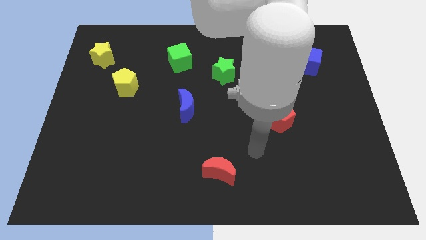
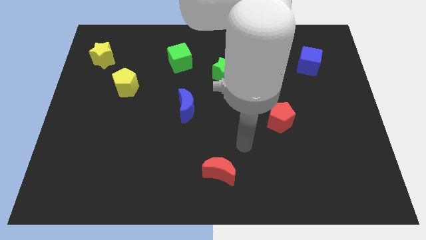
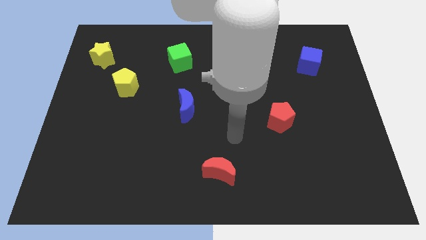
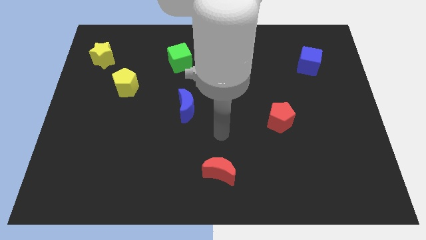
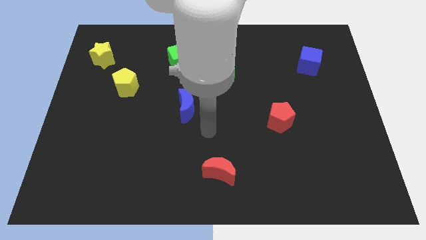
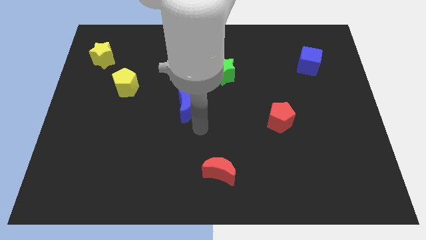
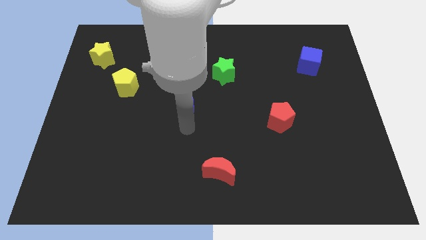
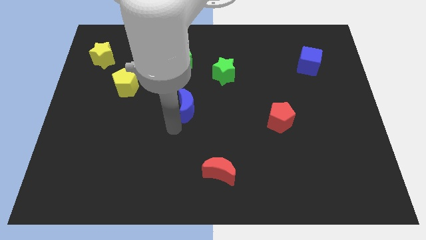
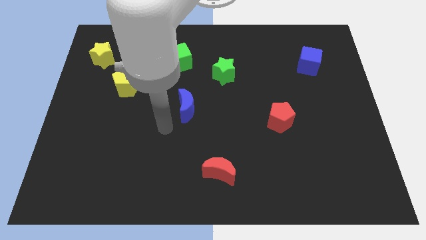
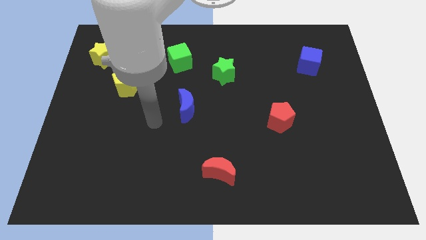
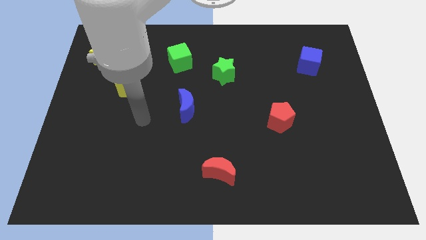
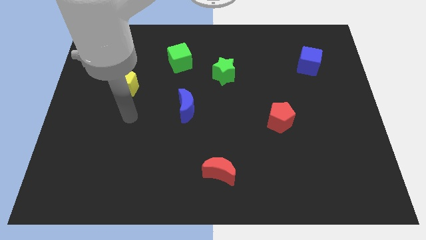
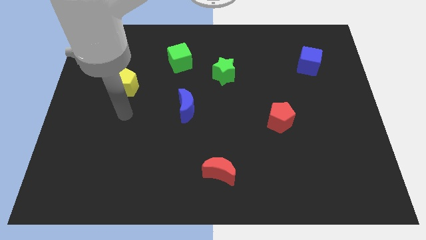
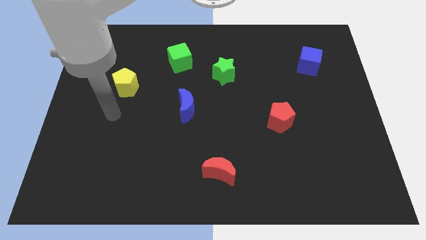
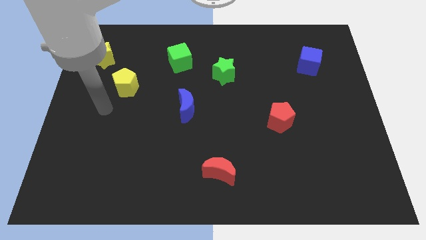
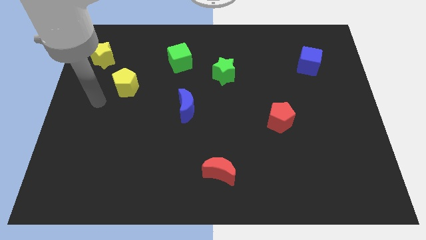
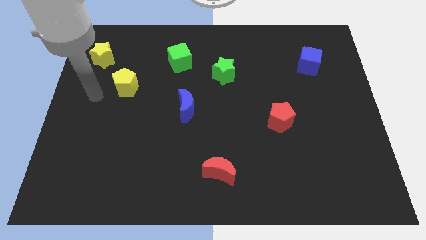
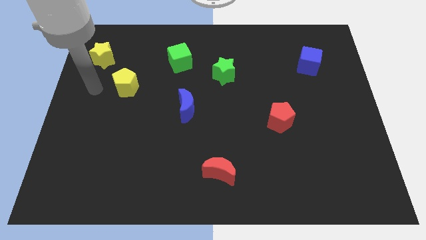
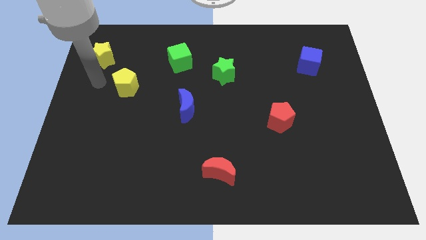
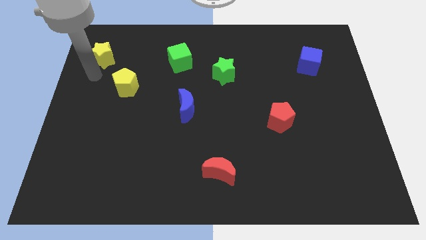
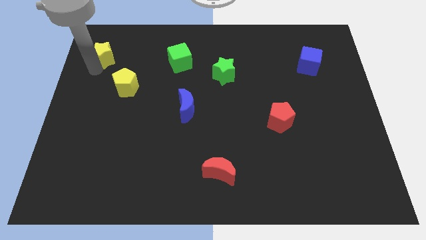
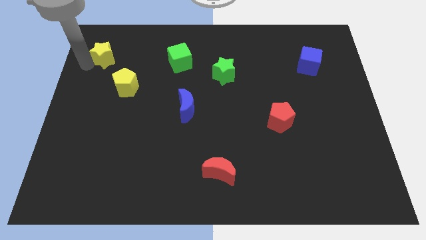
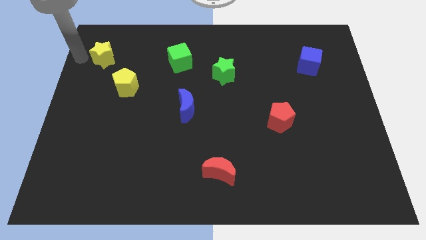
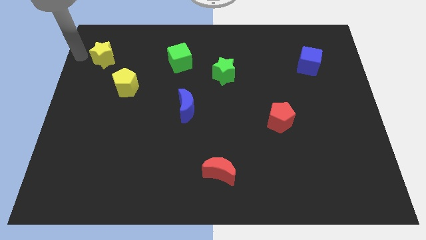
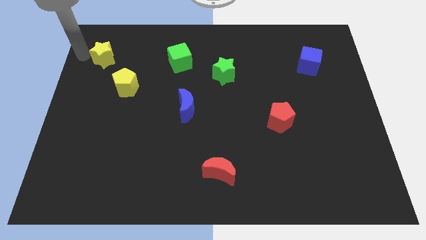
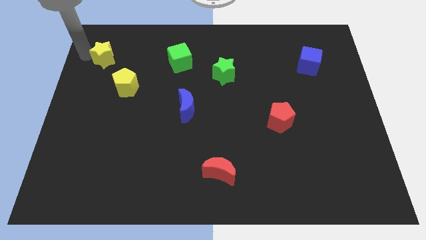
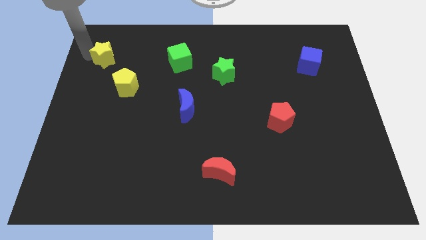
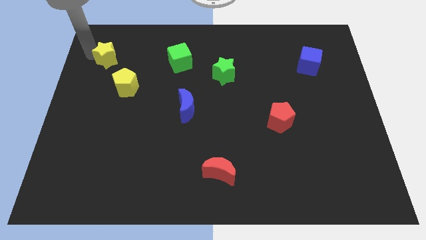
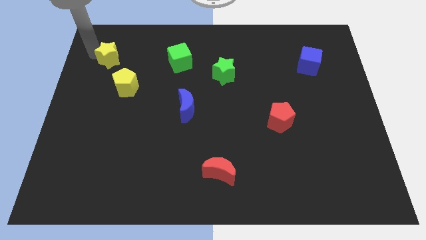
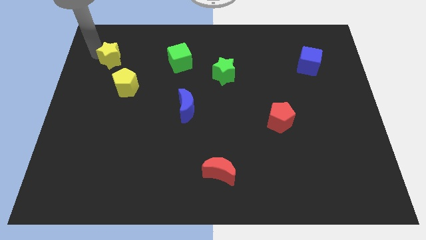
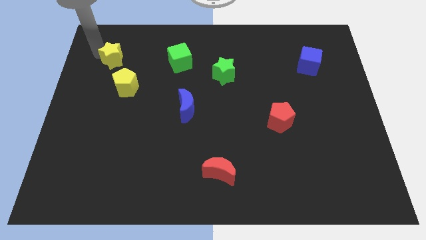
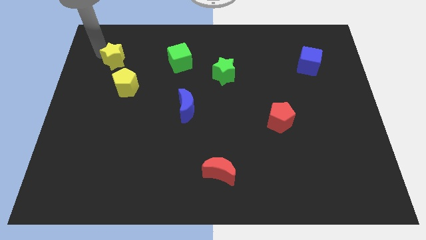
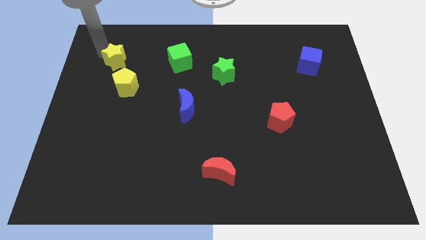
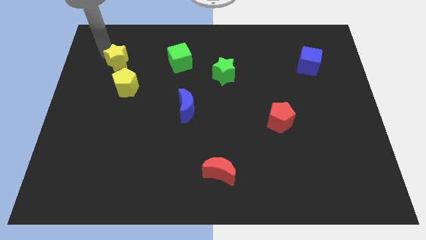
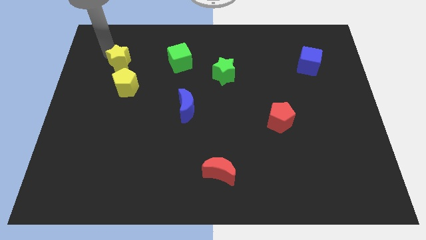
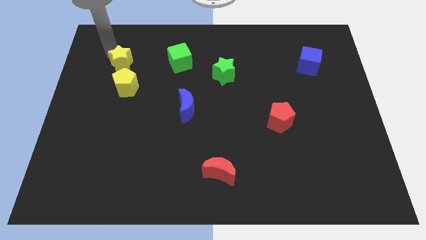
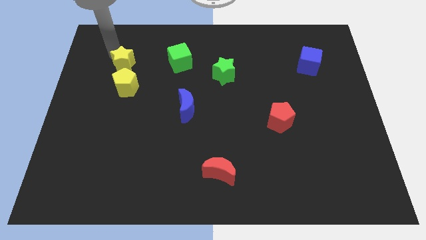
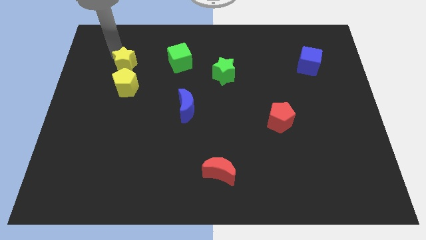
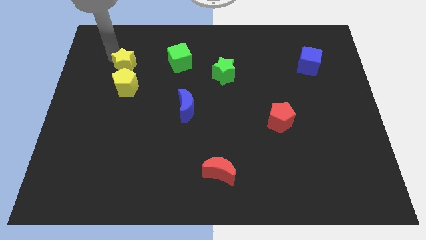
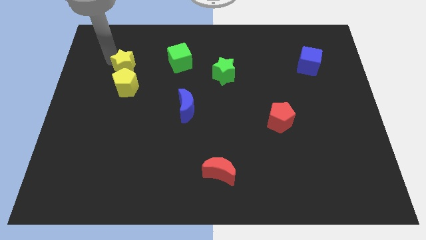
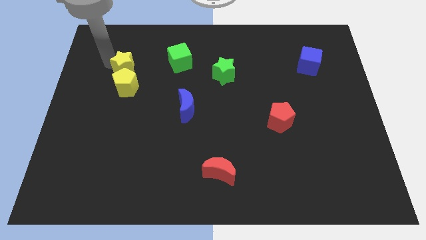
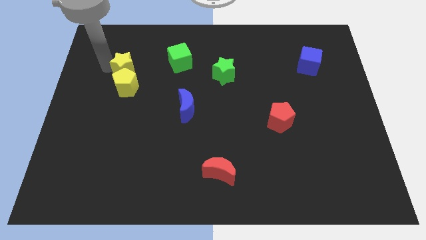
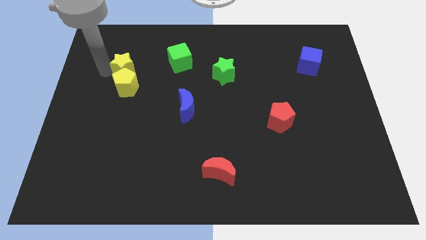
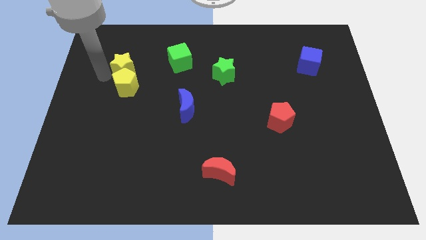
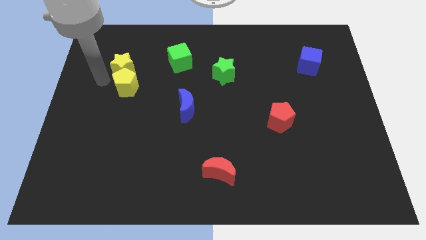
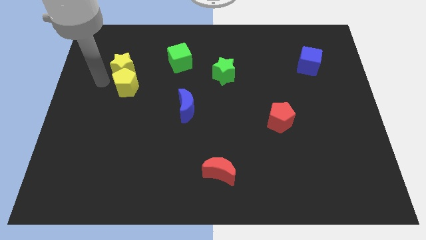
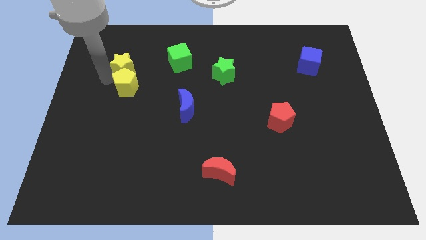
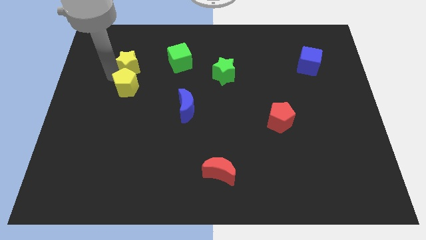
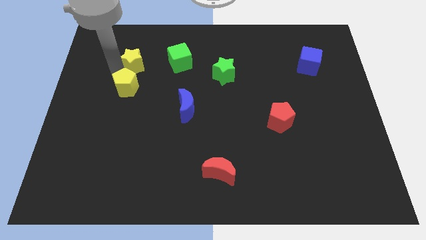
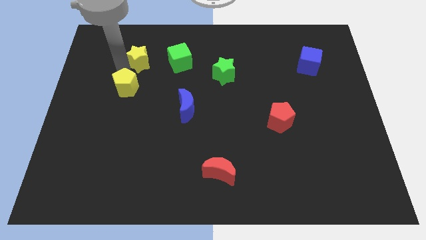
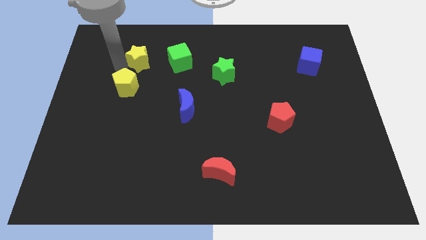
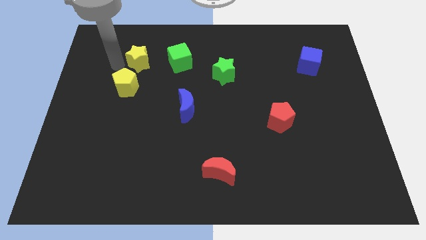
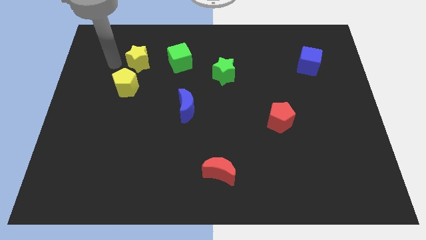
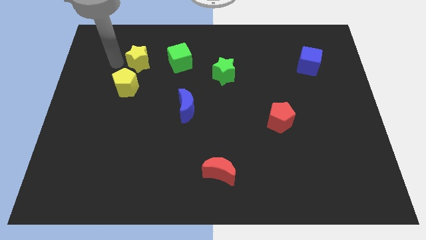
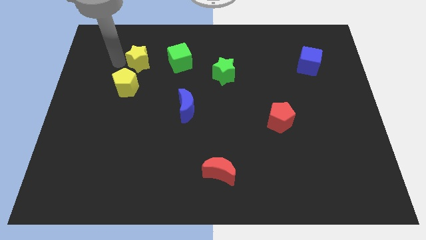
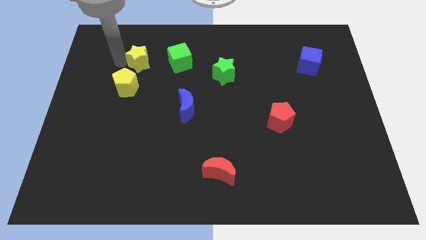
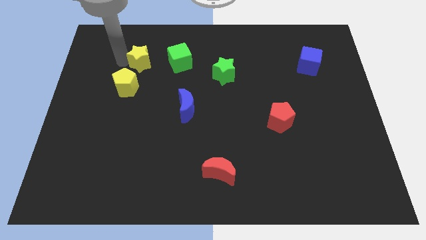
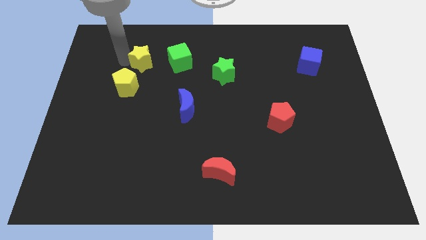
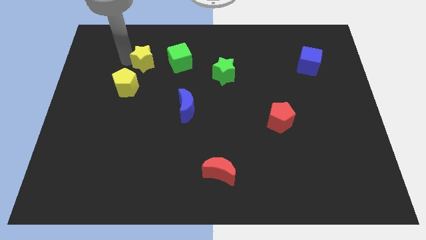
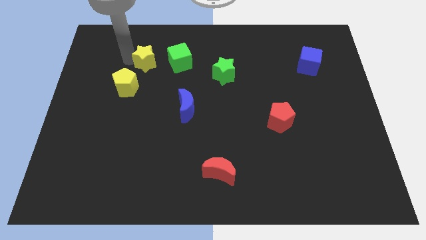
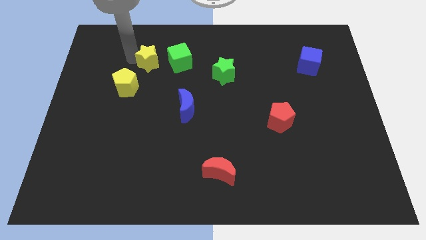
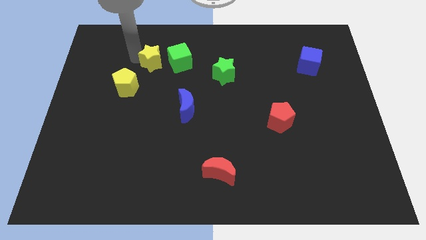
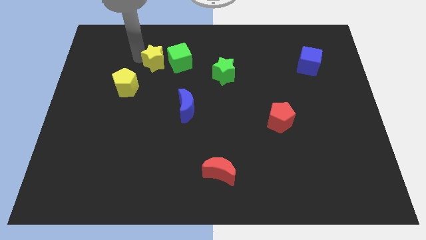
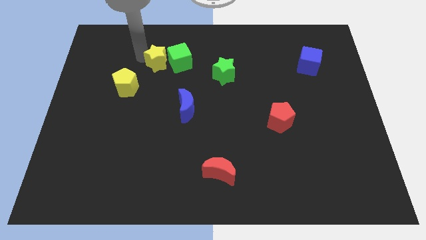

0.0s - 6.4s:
push the yellow star next to the green cube

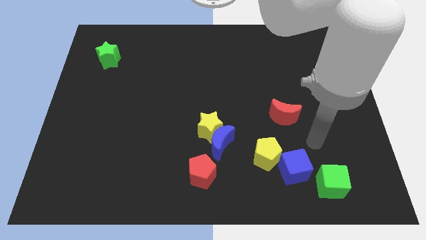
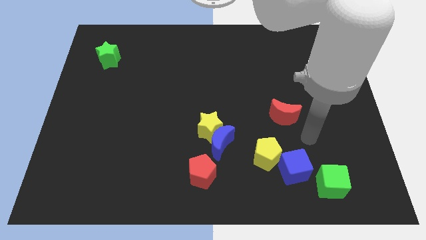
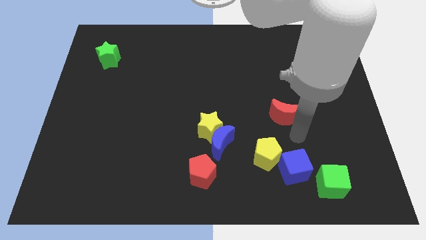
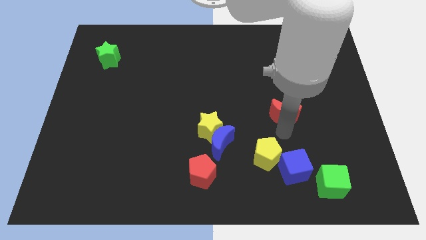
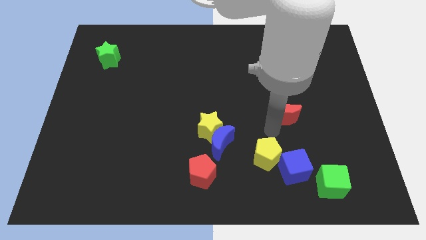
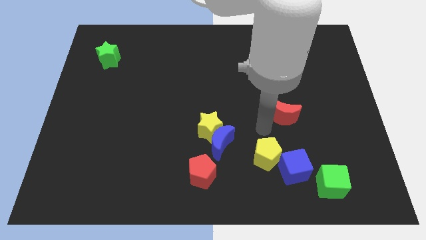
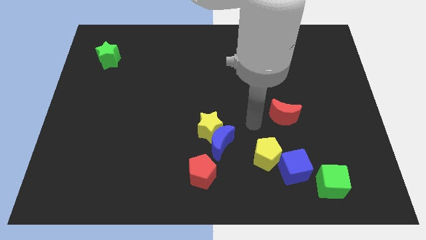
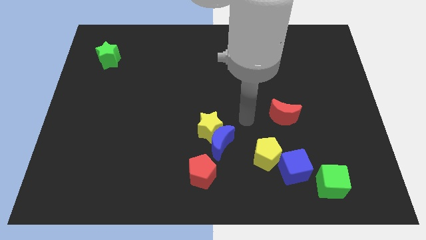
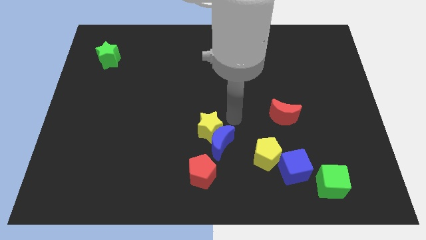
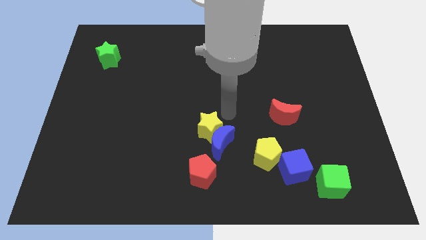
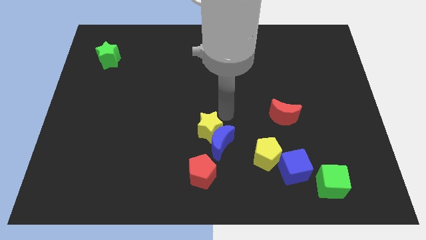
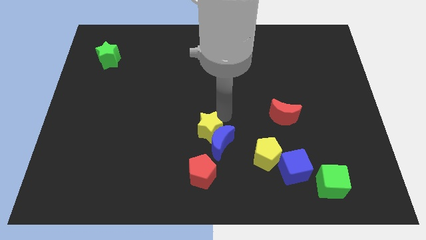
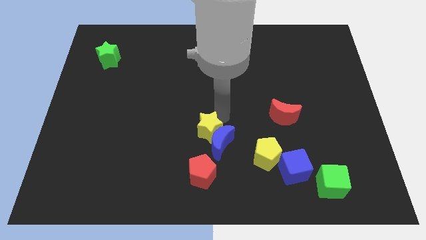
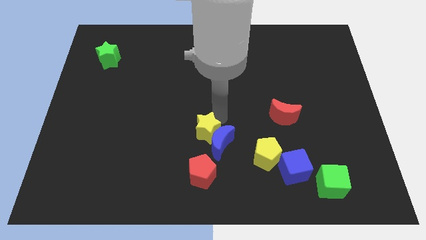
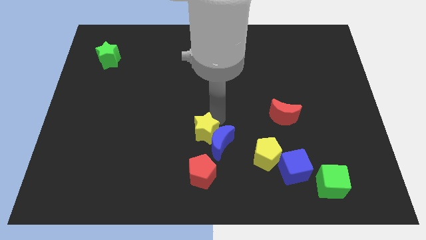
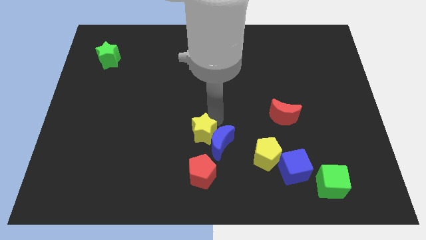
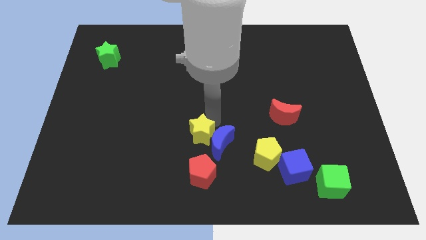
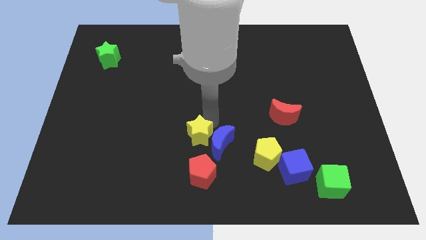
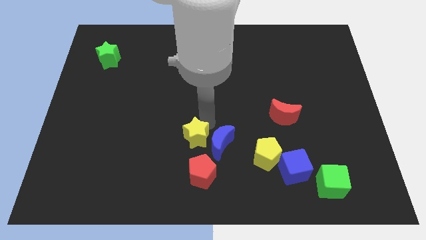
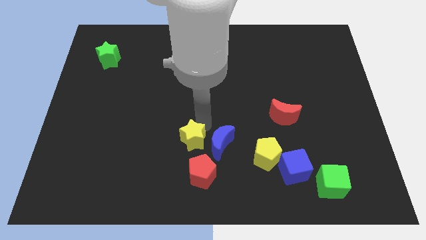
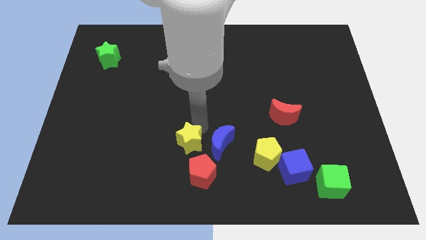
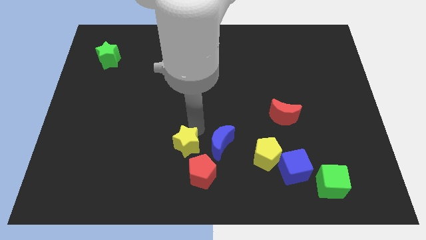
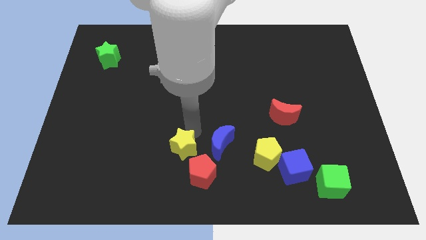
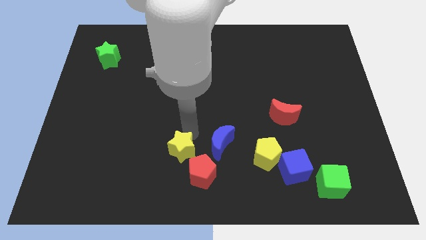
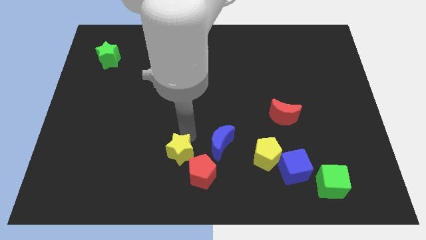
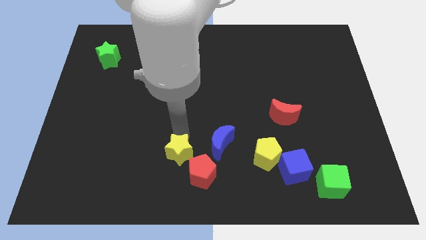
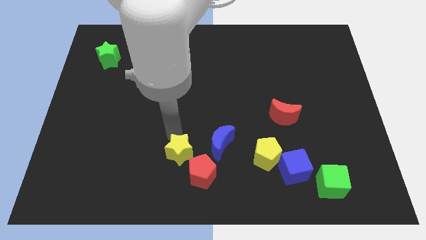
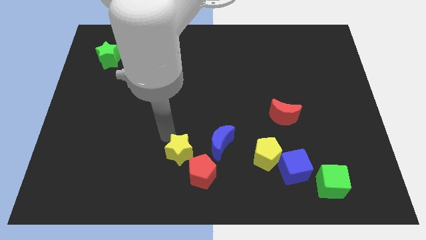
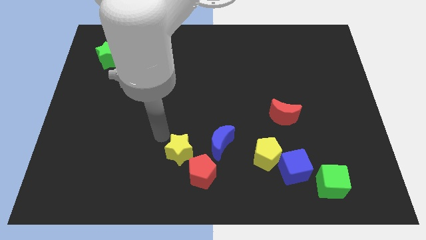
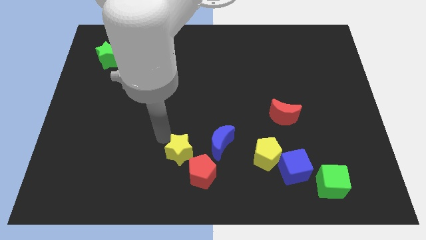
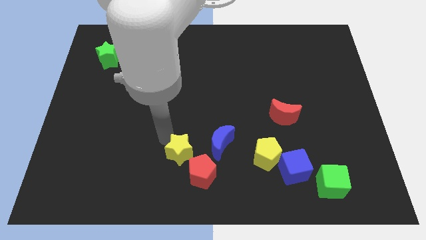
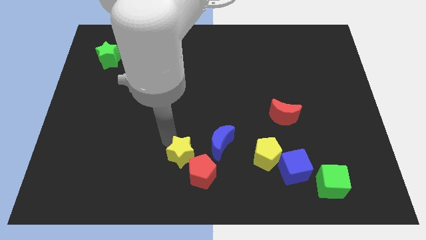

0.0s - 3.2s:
push the yellow star close to the red pentagon
